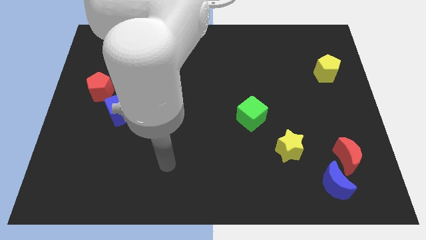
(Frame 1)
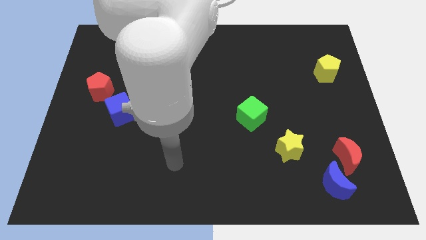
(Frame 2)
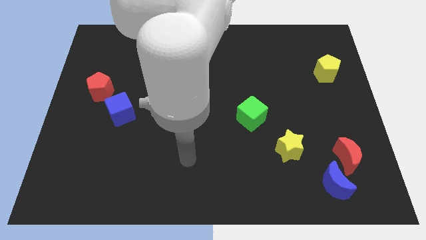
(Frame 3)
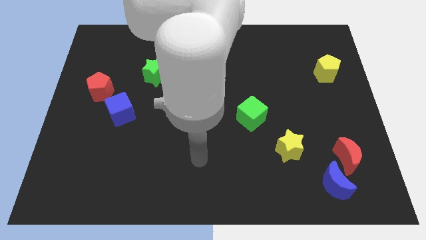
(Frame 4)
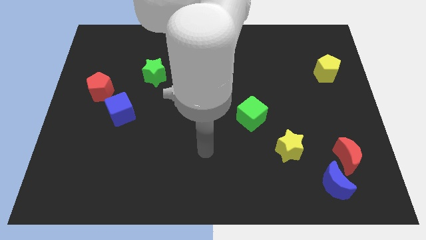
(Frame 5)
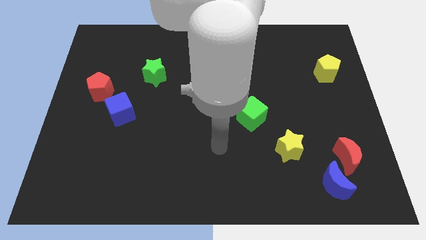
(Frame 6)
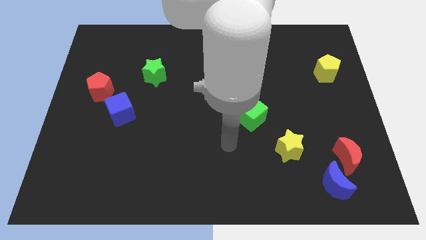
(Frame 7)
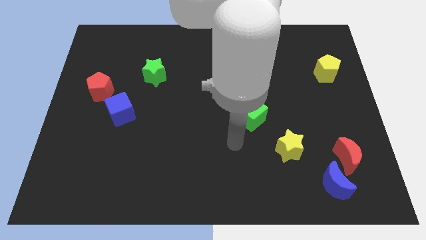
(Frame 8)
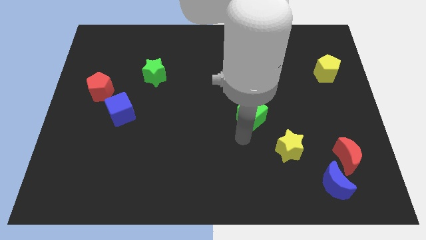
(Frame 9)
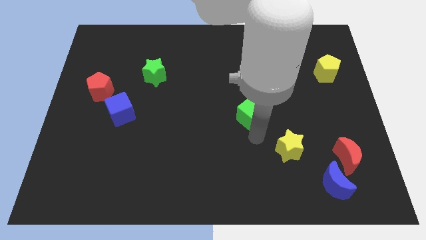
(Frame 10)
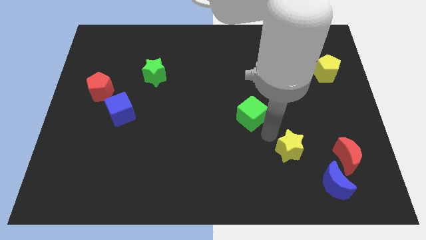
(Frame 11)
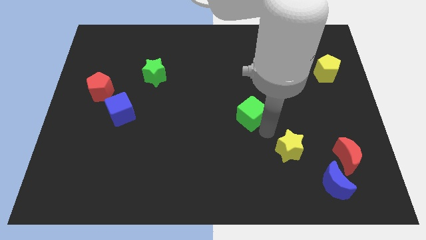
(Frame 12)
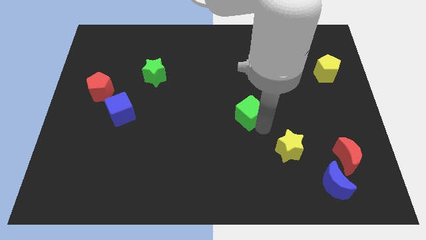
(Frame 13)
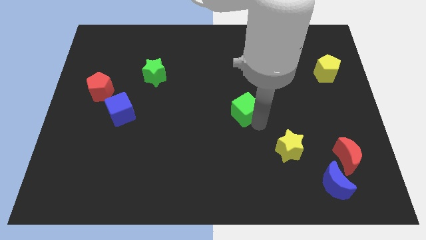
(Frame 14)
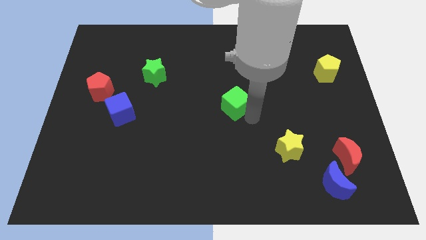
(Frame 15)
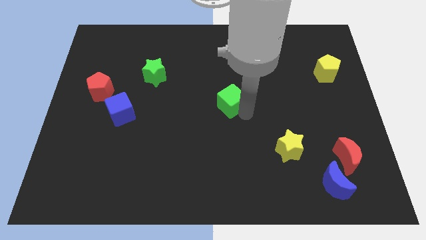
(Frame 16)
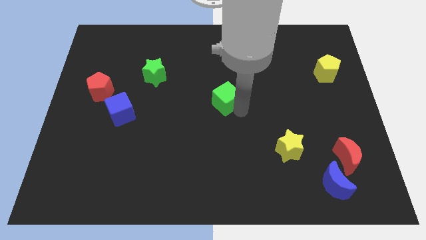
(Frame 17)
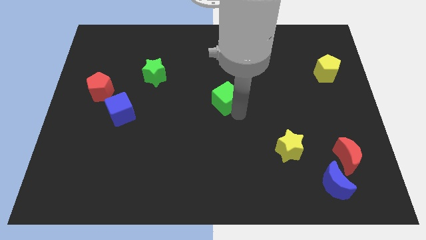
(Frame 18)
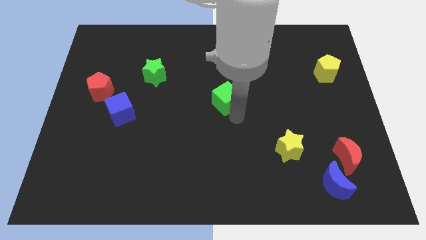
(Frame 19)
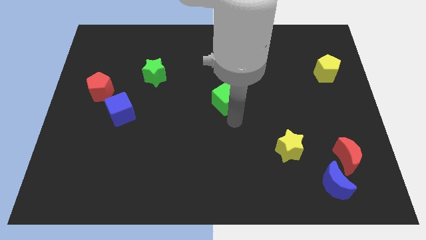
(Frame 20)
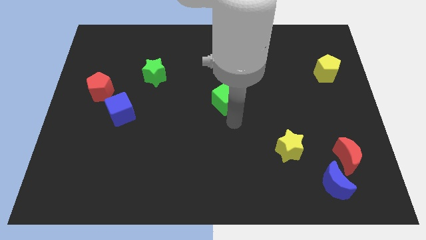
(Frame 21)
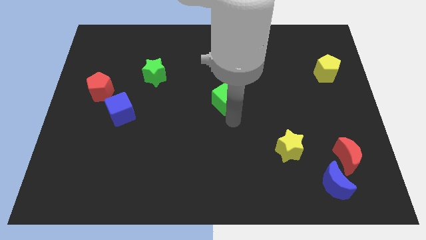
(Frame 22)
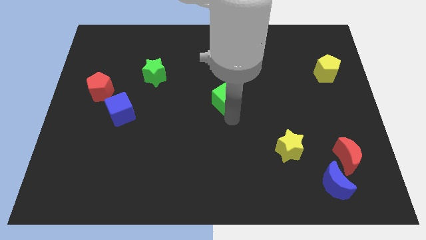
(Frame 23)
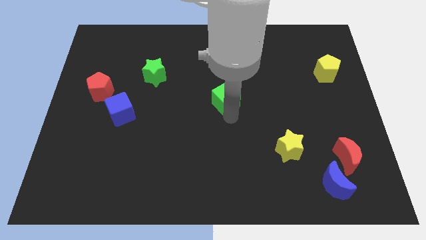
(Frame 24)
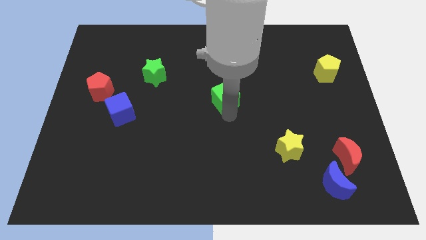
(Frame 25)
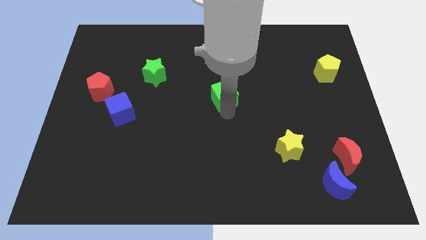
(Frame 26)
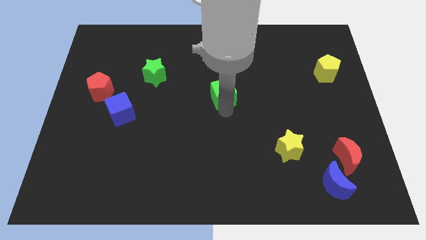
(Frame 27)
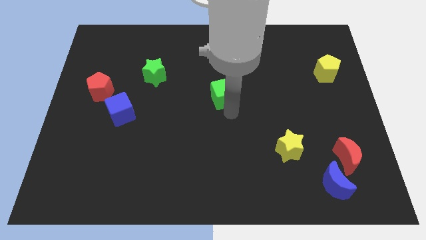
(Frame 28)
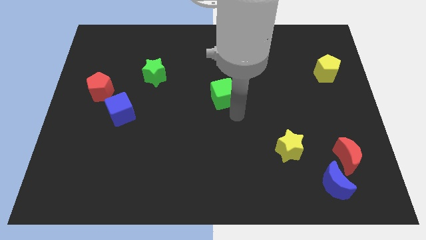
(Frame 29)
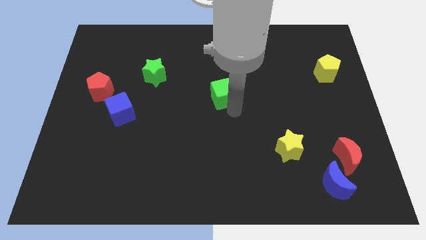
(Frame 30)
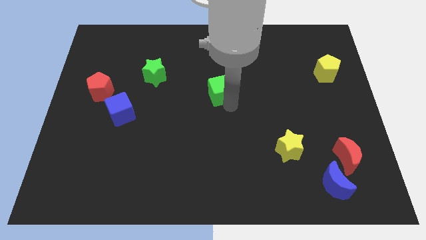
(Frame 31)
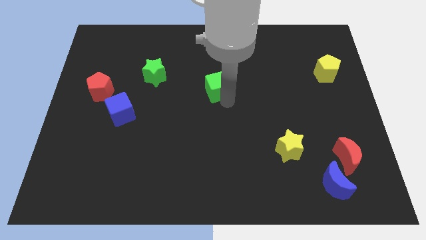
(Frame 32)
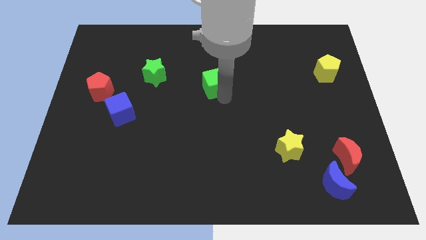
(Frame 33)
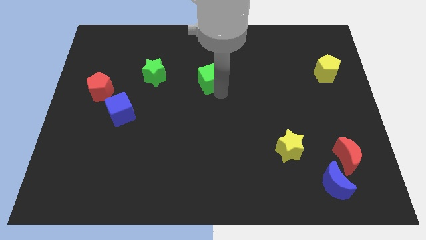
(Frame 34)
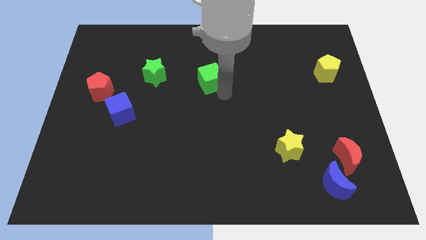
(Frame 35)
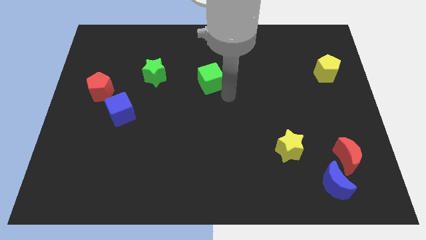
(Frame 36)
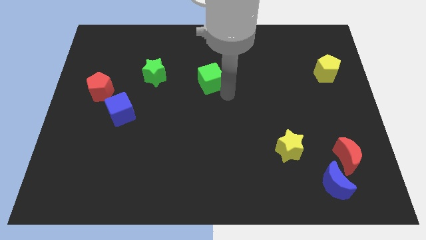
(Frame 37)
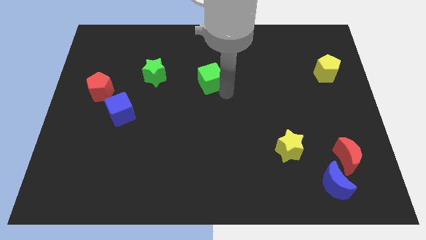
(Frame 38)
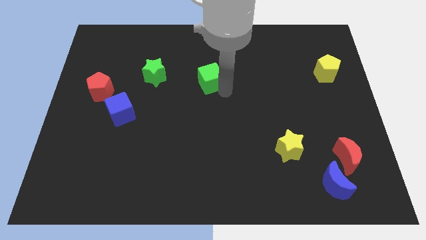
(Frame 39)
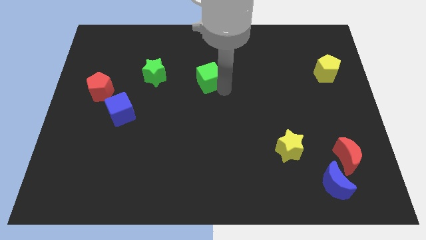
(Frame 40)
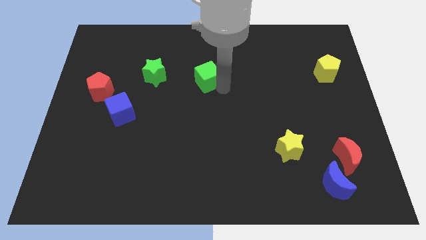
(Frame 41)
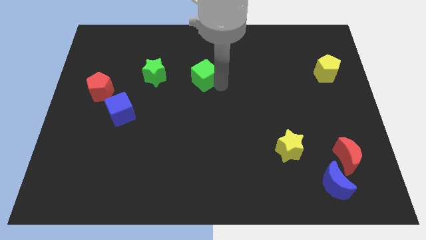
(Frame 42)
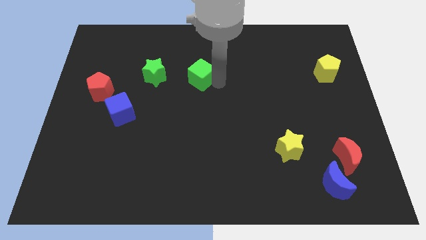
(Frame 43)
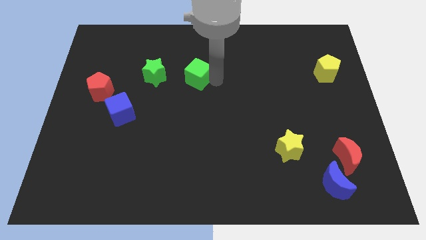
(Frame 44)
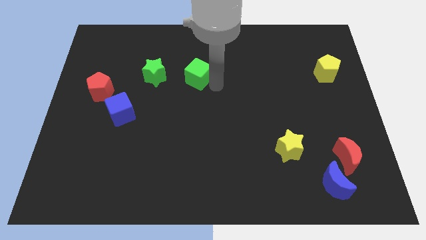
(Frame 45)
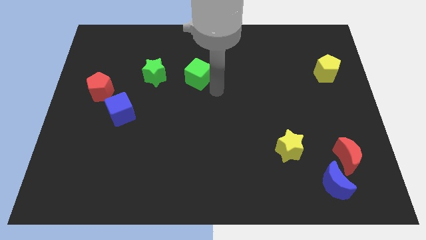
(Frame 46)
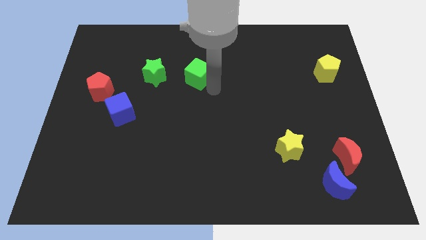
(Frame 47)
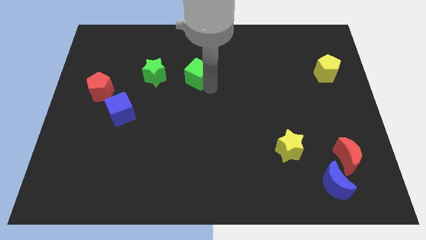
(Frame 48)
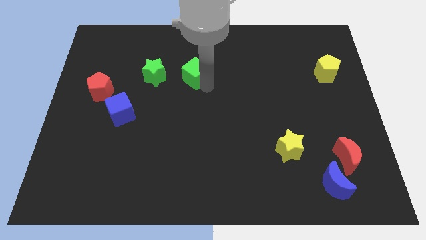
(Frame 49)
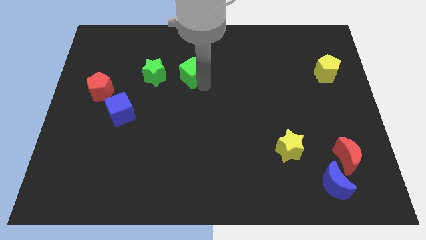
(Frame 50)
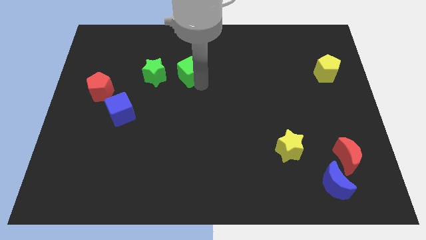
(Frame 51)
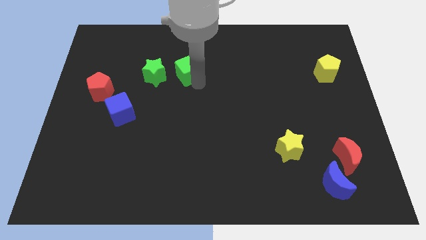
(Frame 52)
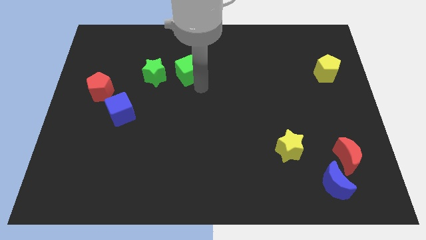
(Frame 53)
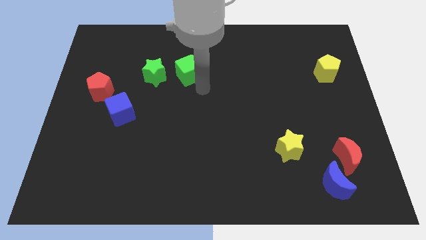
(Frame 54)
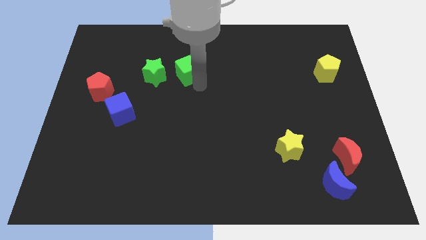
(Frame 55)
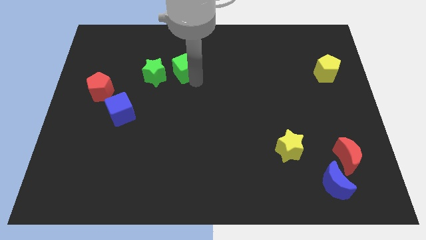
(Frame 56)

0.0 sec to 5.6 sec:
move the green cube to the top right of the green star

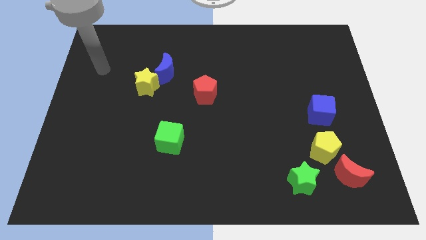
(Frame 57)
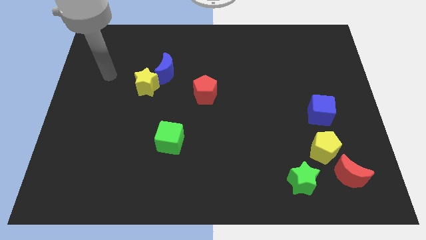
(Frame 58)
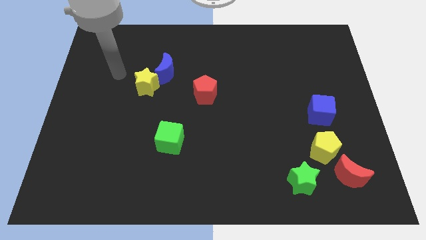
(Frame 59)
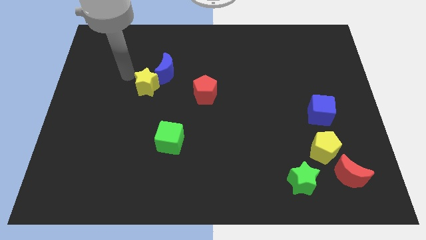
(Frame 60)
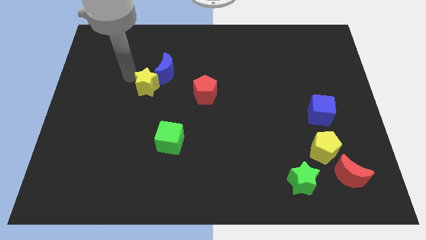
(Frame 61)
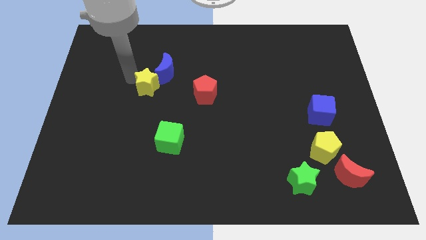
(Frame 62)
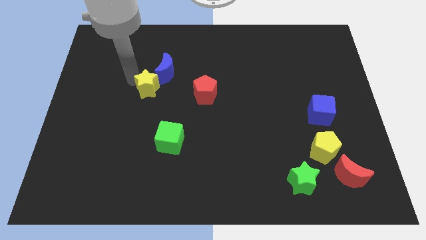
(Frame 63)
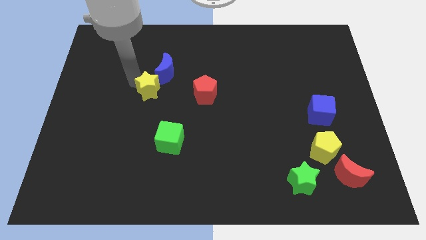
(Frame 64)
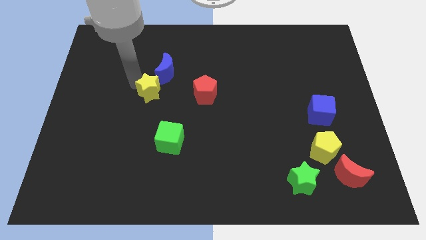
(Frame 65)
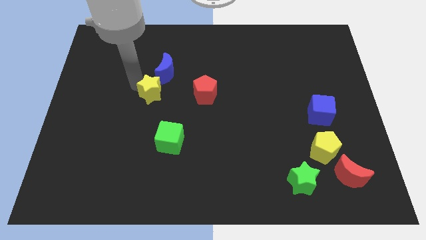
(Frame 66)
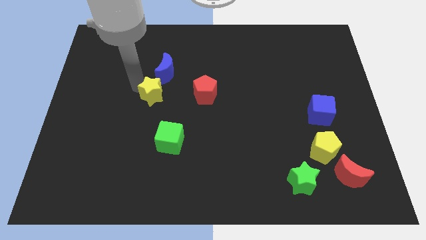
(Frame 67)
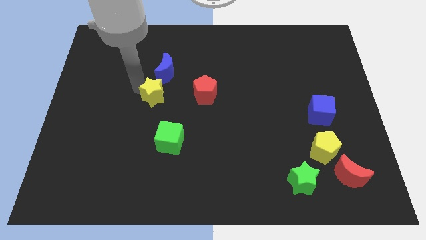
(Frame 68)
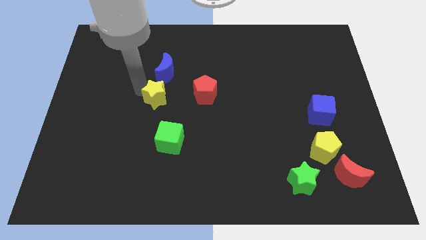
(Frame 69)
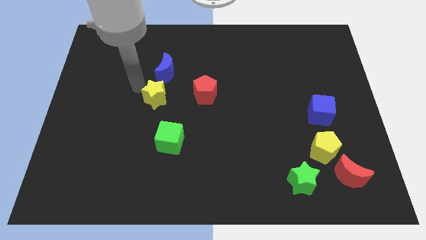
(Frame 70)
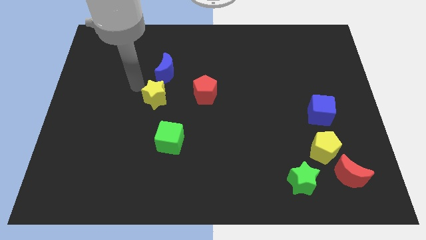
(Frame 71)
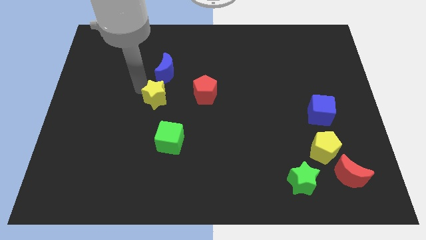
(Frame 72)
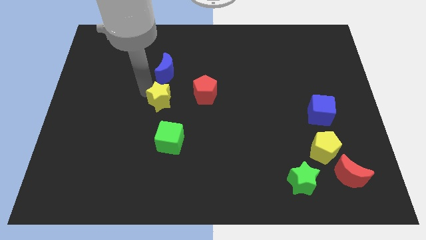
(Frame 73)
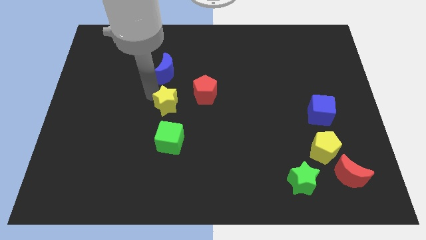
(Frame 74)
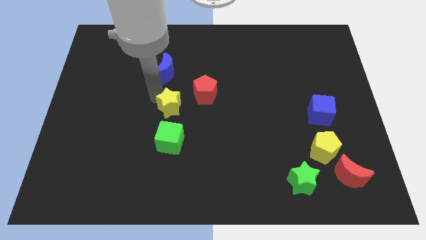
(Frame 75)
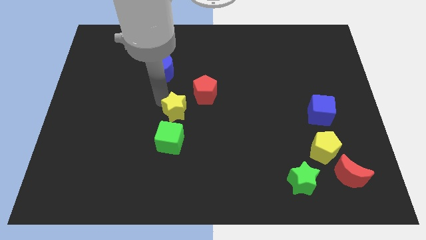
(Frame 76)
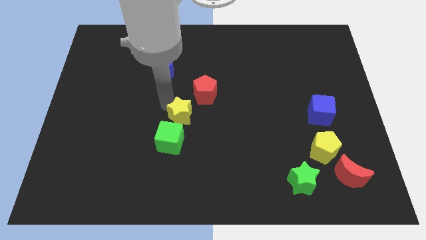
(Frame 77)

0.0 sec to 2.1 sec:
put the yellow star diagonally up and to the right of the green cube
